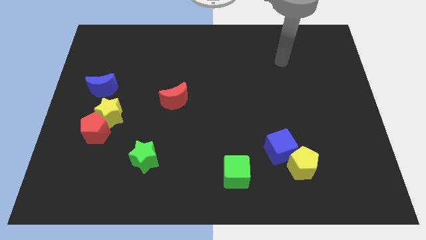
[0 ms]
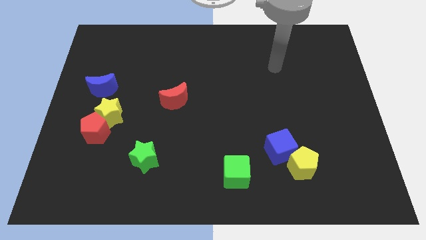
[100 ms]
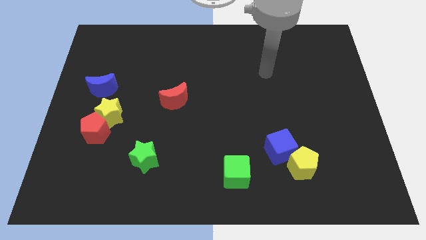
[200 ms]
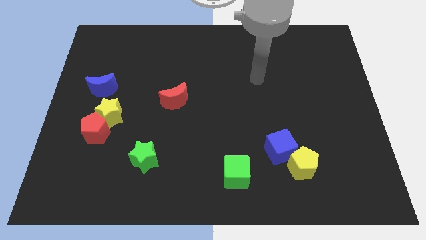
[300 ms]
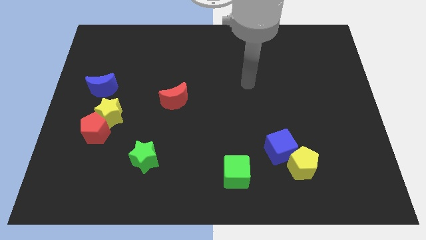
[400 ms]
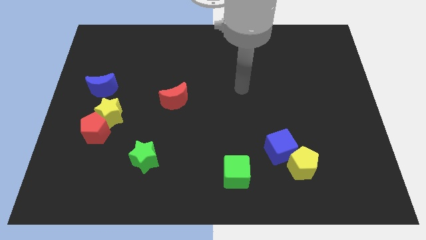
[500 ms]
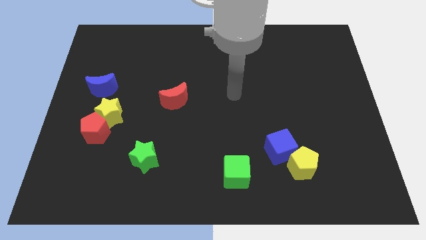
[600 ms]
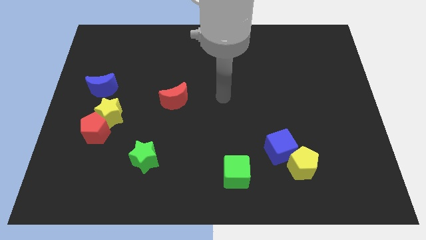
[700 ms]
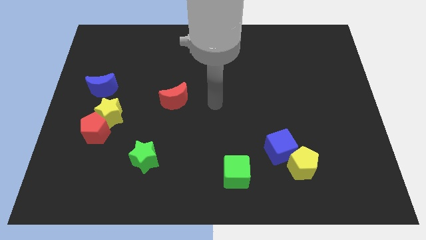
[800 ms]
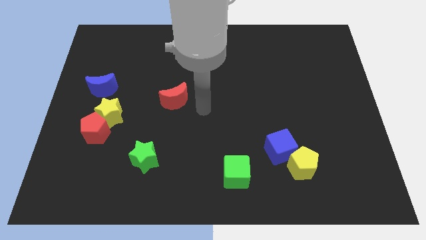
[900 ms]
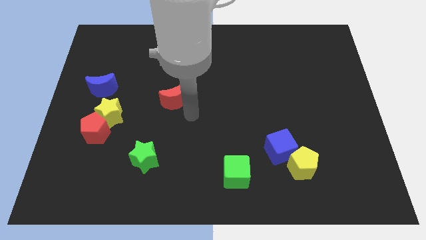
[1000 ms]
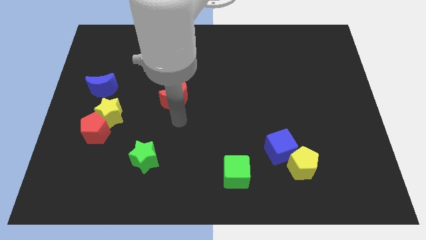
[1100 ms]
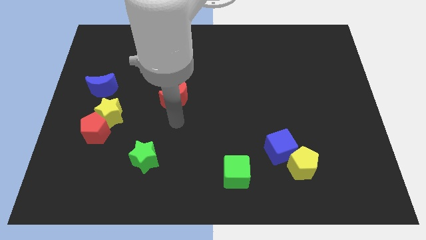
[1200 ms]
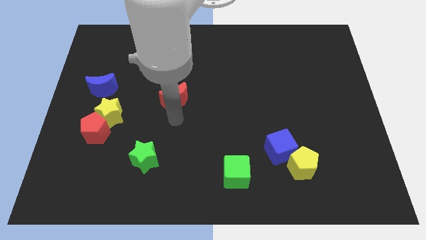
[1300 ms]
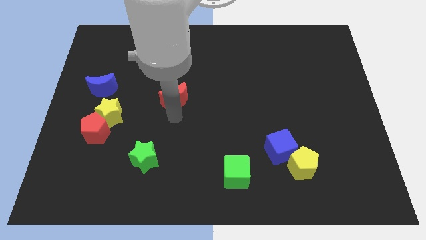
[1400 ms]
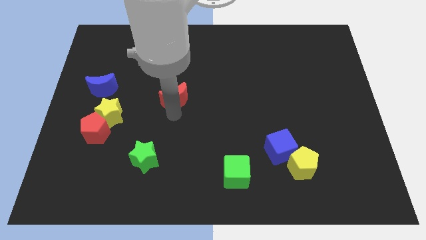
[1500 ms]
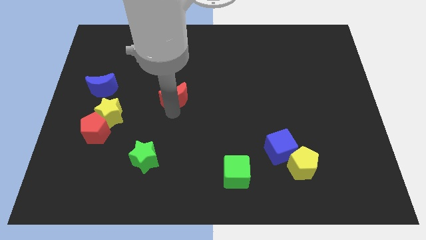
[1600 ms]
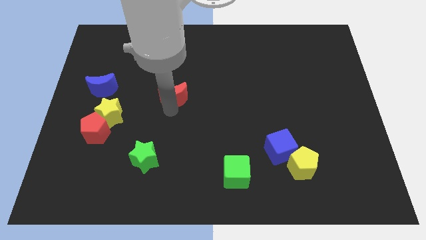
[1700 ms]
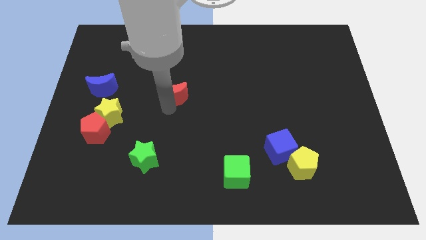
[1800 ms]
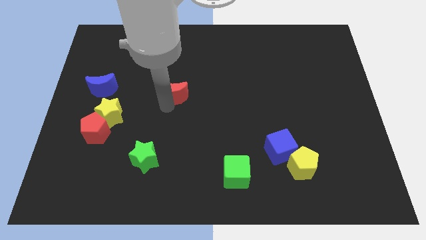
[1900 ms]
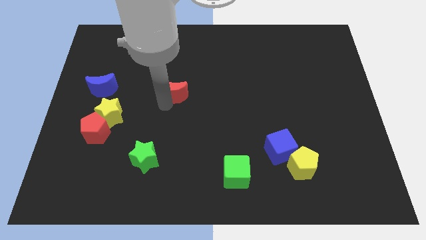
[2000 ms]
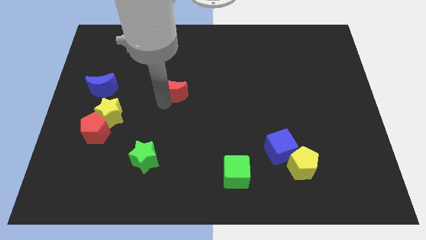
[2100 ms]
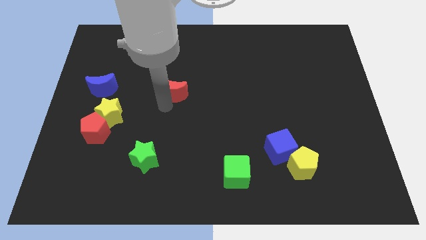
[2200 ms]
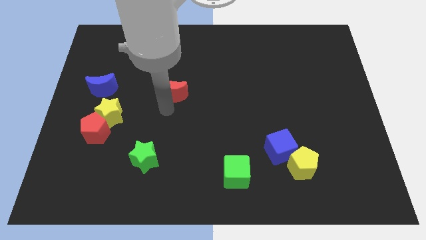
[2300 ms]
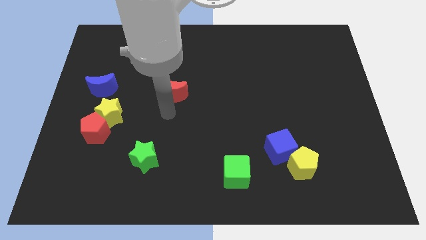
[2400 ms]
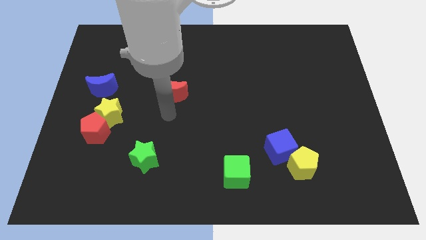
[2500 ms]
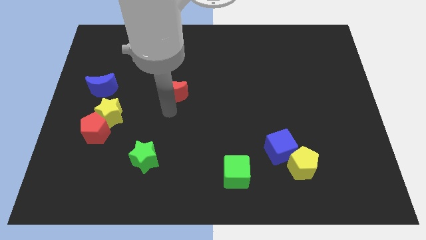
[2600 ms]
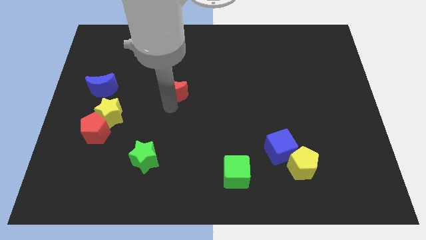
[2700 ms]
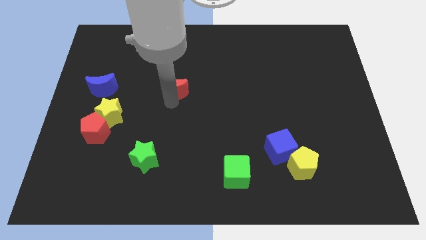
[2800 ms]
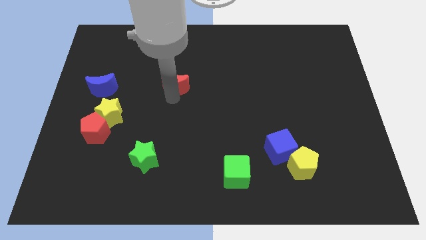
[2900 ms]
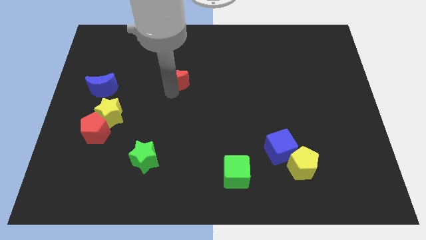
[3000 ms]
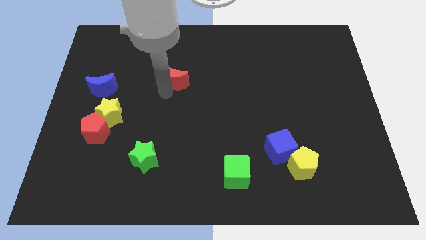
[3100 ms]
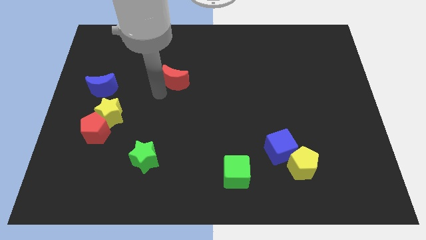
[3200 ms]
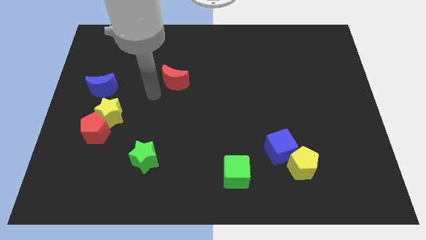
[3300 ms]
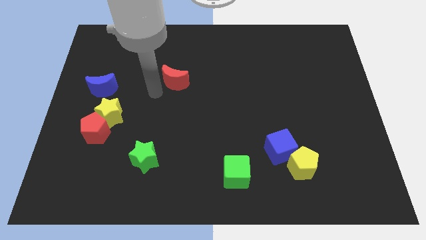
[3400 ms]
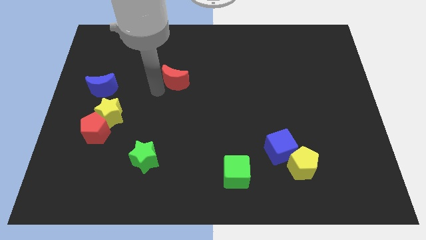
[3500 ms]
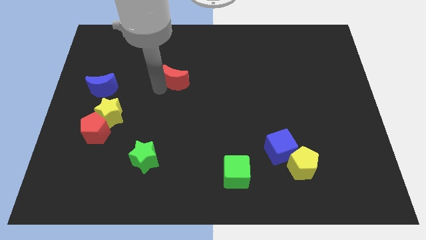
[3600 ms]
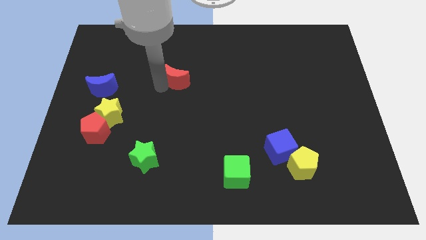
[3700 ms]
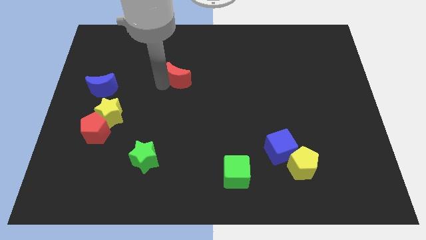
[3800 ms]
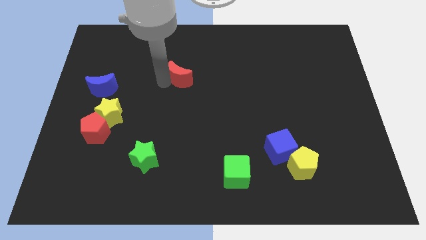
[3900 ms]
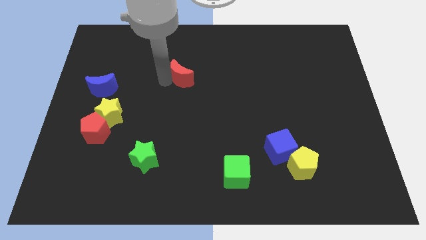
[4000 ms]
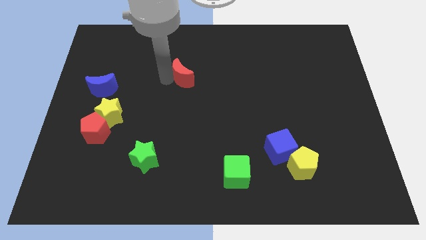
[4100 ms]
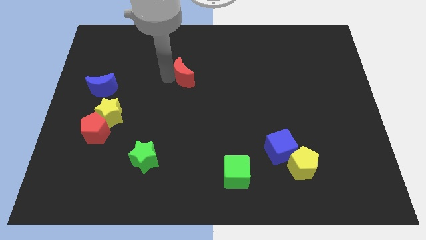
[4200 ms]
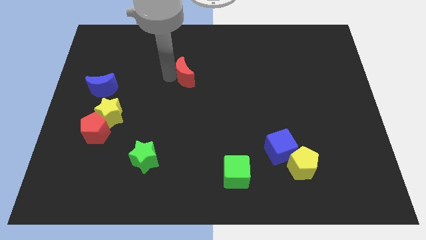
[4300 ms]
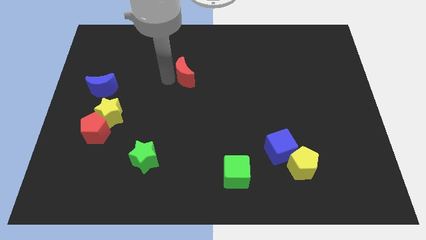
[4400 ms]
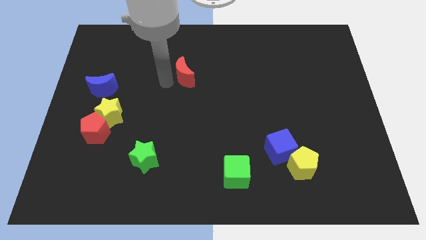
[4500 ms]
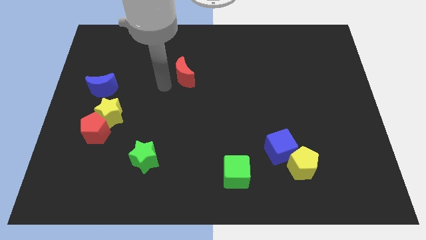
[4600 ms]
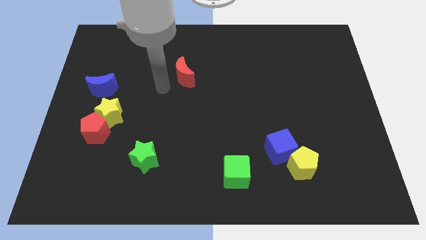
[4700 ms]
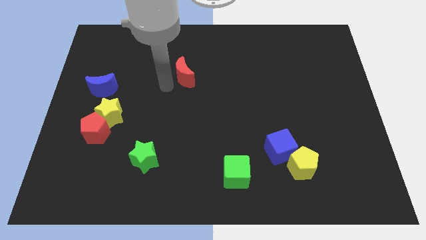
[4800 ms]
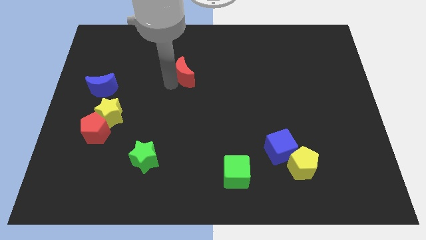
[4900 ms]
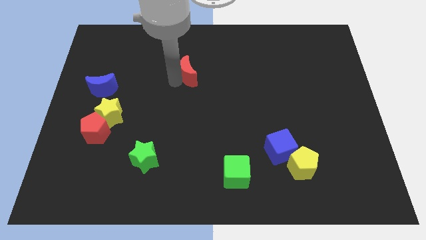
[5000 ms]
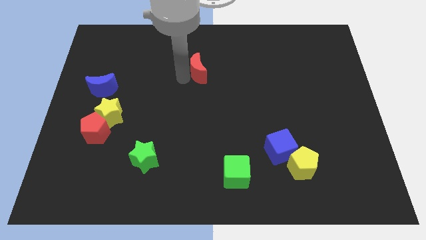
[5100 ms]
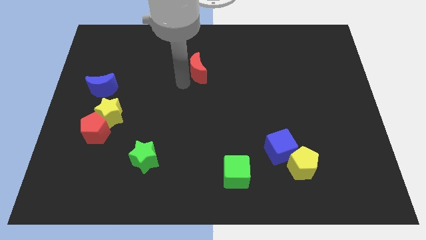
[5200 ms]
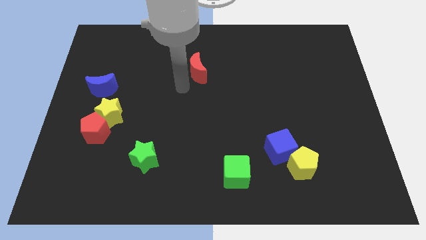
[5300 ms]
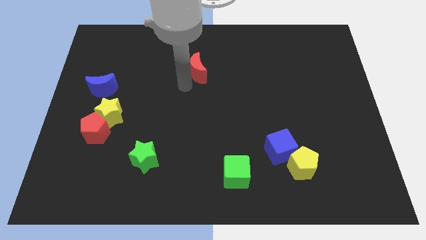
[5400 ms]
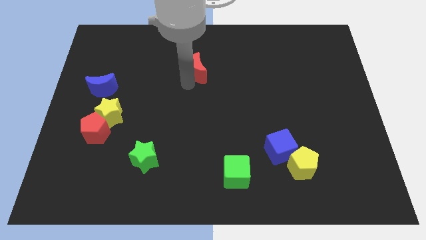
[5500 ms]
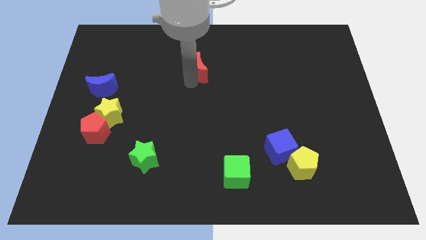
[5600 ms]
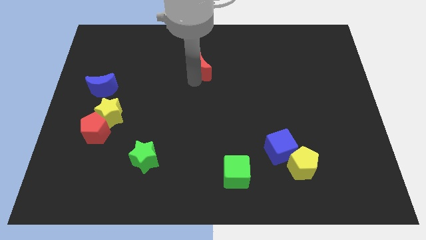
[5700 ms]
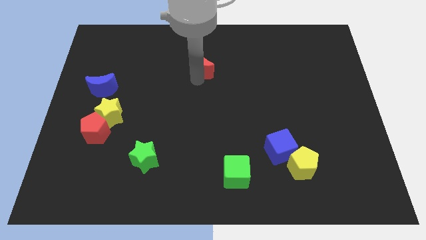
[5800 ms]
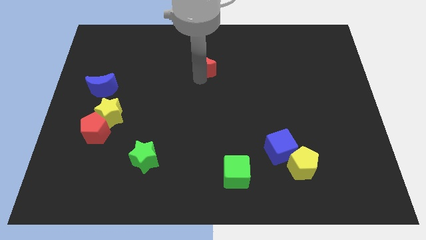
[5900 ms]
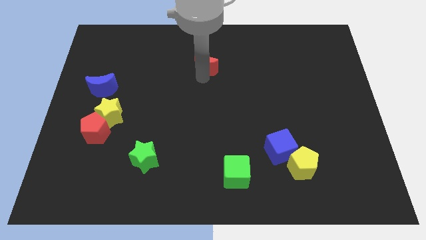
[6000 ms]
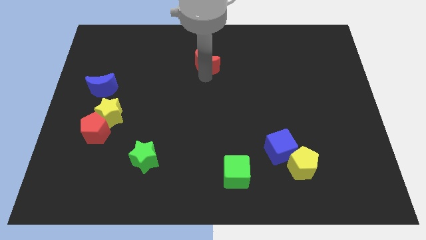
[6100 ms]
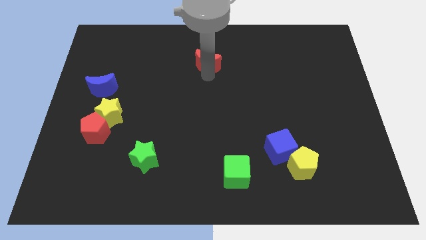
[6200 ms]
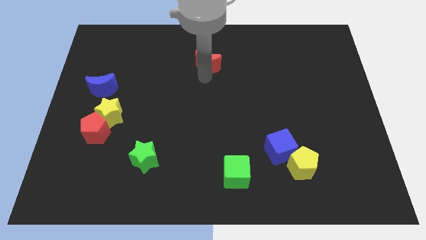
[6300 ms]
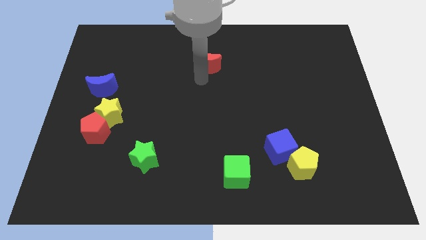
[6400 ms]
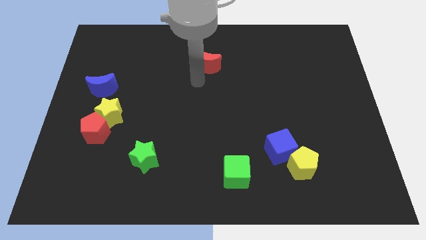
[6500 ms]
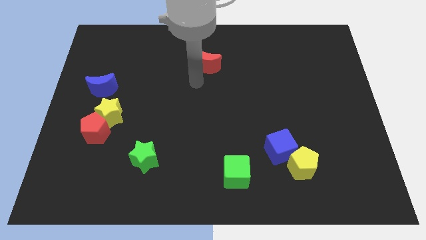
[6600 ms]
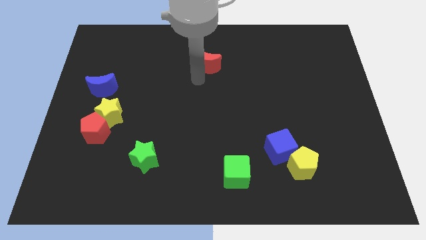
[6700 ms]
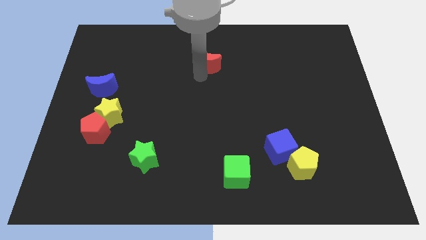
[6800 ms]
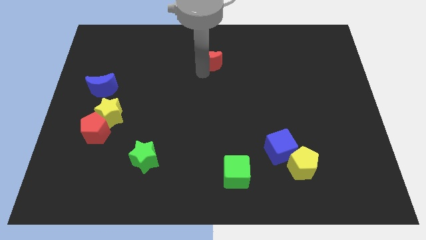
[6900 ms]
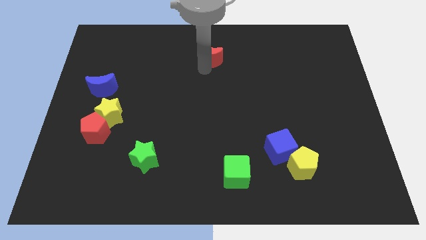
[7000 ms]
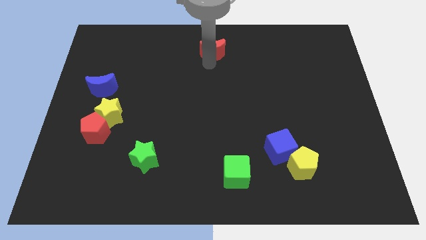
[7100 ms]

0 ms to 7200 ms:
put the red moon to the top side
